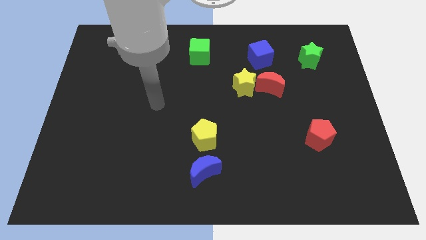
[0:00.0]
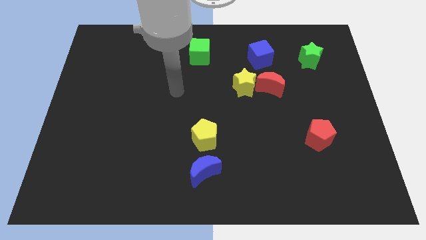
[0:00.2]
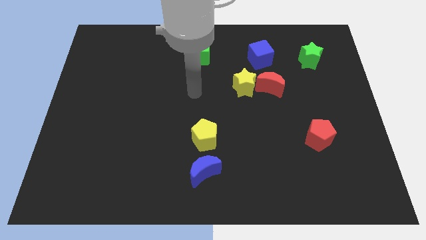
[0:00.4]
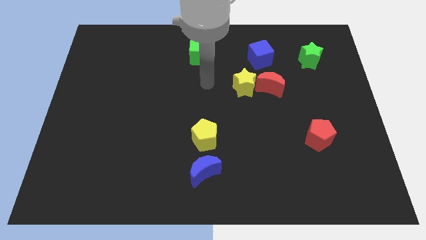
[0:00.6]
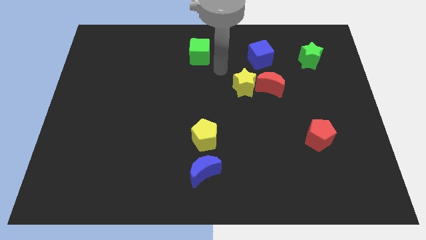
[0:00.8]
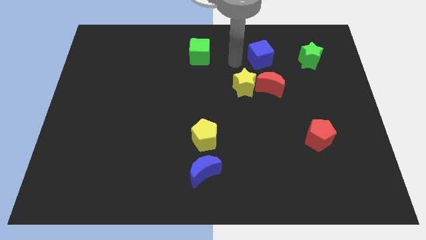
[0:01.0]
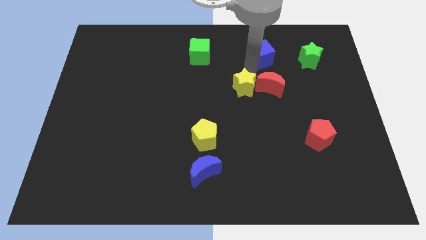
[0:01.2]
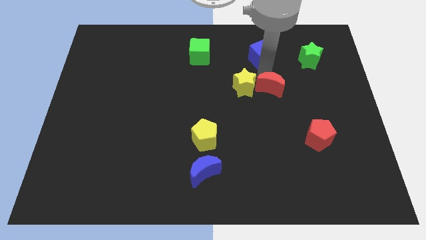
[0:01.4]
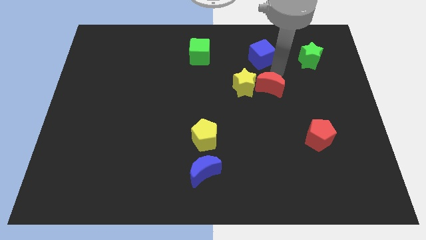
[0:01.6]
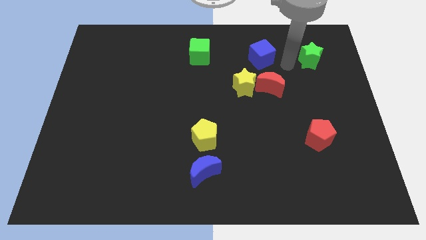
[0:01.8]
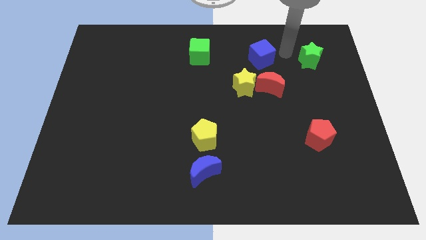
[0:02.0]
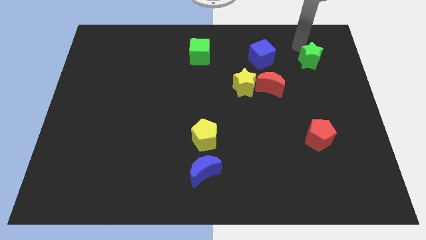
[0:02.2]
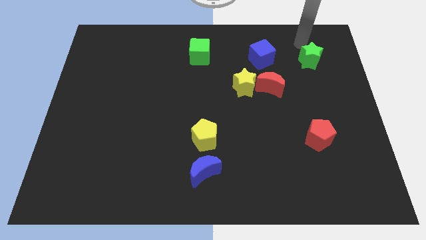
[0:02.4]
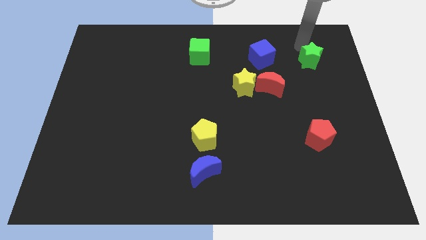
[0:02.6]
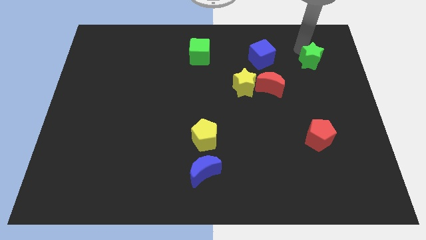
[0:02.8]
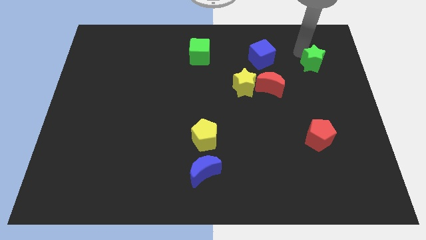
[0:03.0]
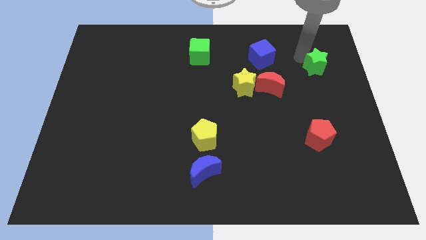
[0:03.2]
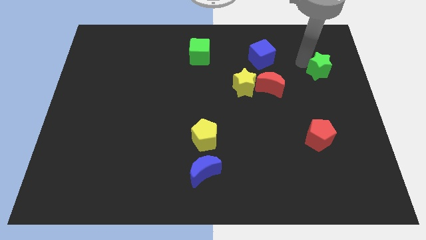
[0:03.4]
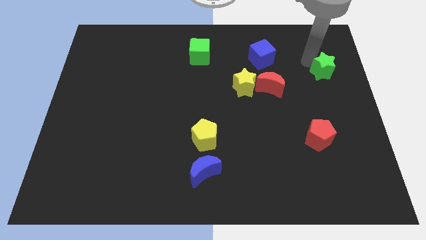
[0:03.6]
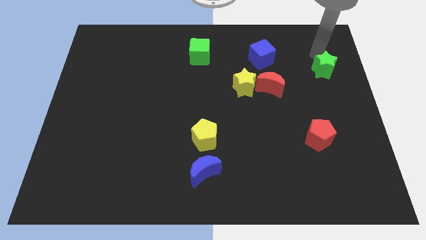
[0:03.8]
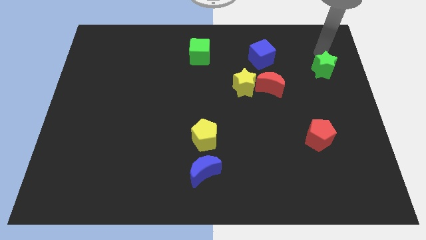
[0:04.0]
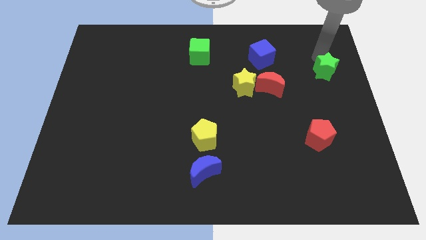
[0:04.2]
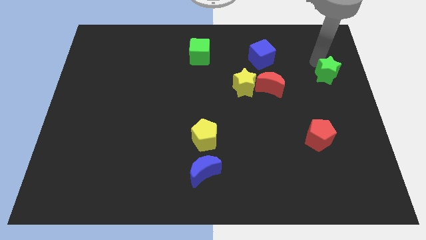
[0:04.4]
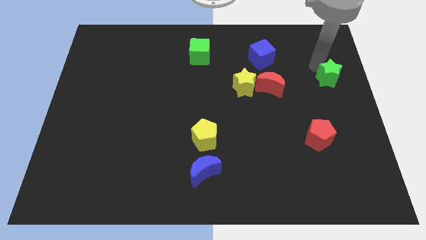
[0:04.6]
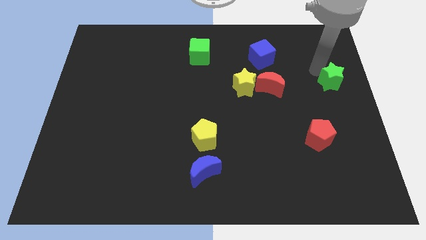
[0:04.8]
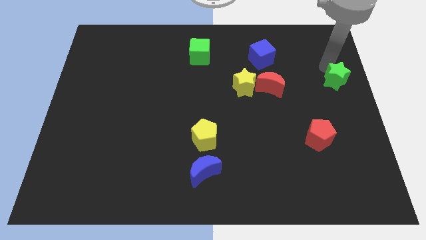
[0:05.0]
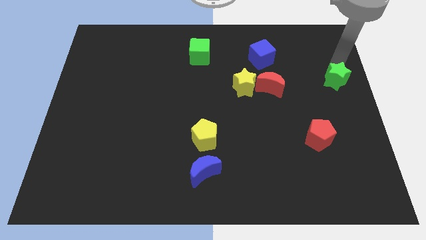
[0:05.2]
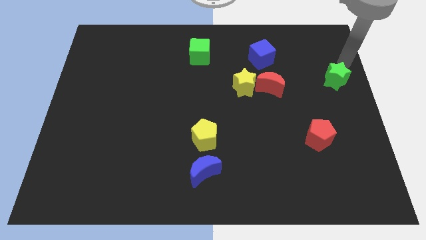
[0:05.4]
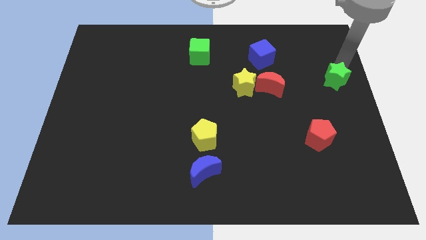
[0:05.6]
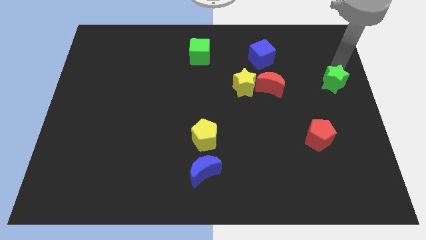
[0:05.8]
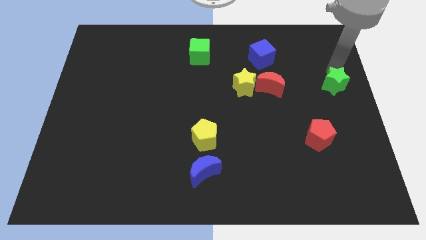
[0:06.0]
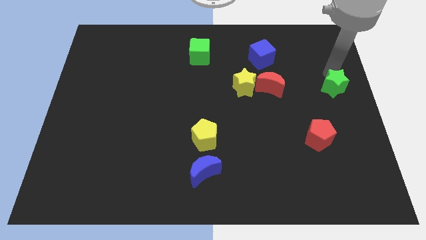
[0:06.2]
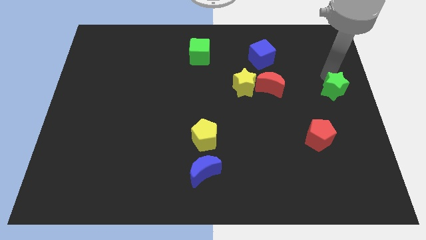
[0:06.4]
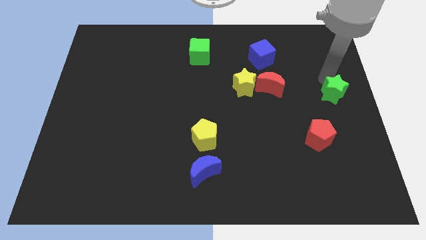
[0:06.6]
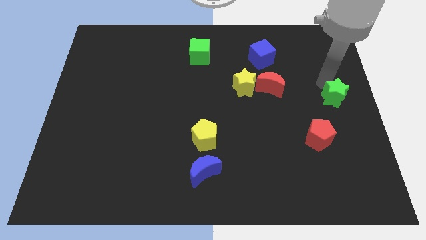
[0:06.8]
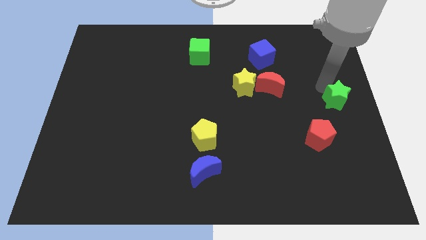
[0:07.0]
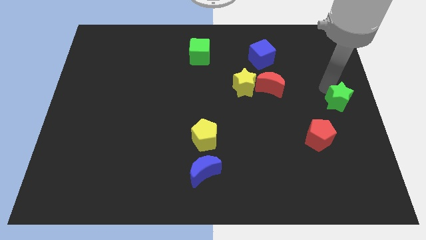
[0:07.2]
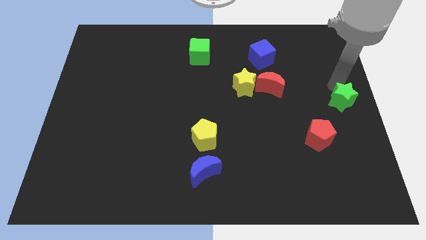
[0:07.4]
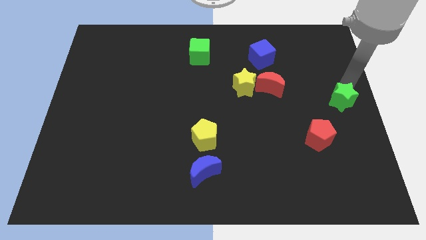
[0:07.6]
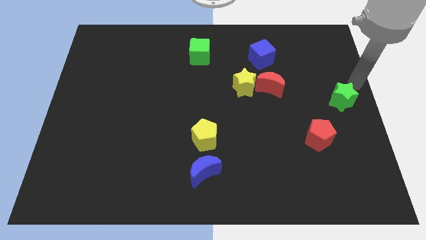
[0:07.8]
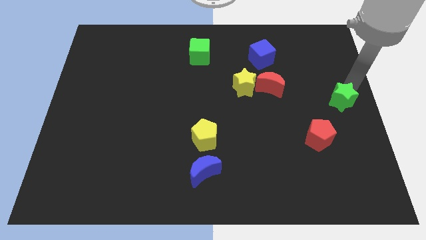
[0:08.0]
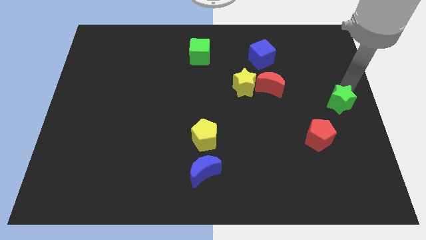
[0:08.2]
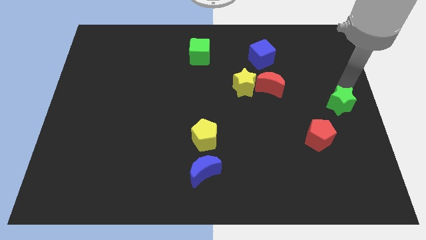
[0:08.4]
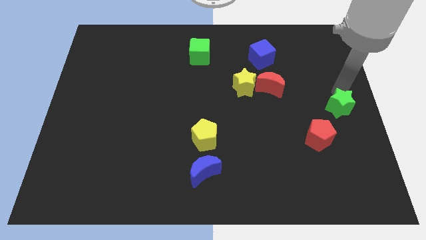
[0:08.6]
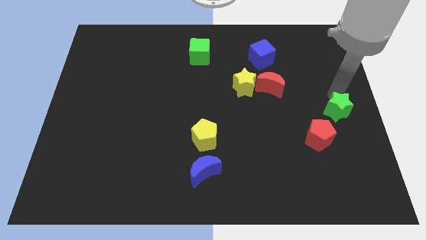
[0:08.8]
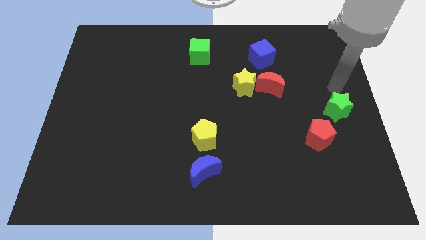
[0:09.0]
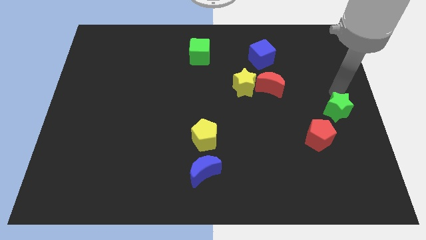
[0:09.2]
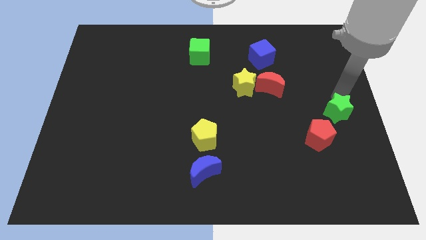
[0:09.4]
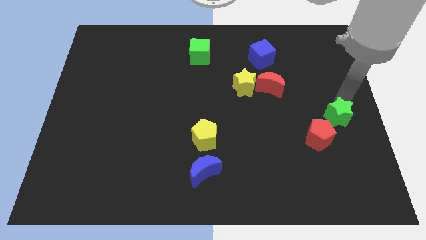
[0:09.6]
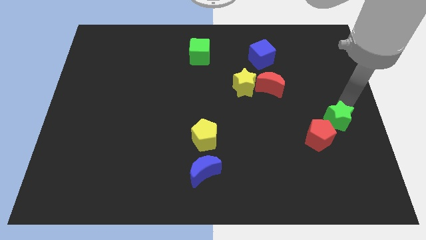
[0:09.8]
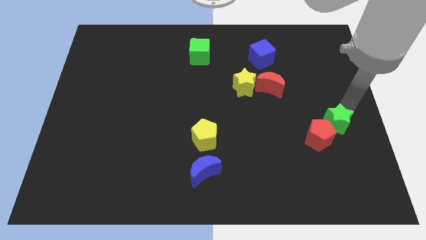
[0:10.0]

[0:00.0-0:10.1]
push the green star down

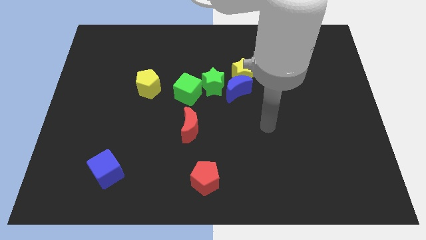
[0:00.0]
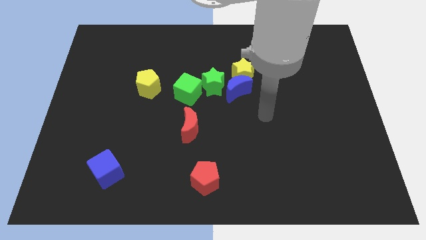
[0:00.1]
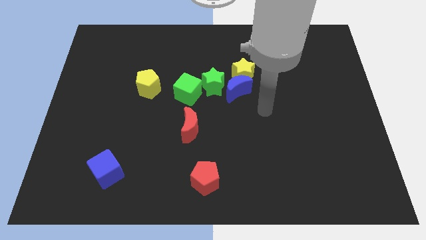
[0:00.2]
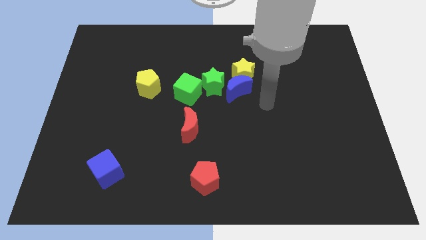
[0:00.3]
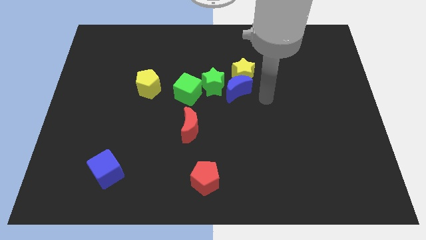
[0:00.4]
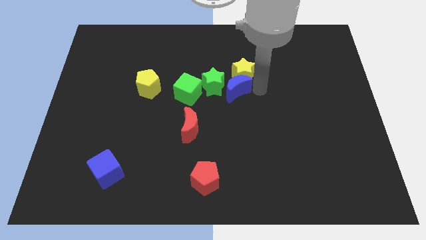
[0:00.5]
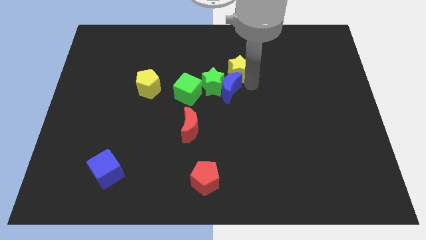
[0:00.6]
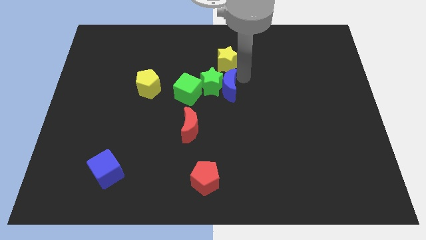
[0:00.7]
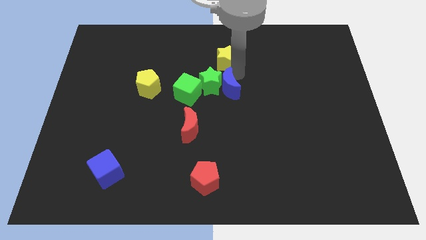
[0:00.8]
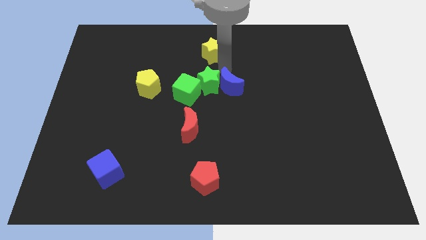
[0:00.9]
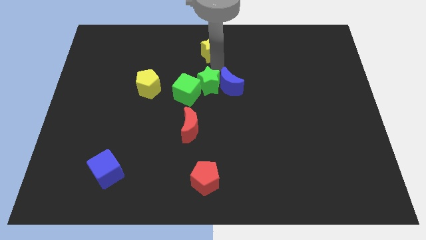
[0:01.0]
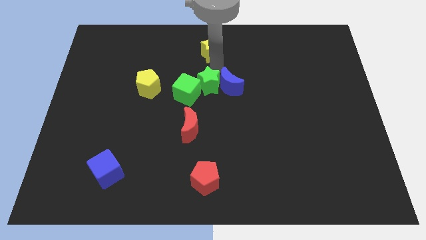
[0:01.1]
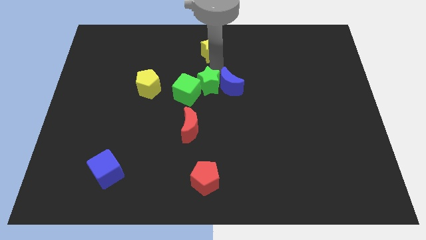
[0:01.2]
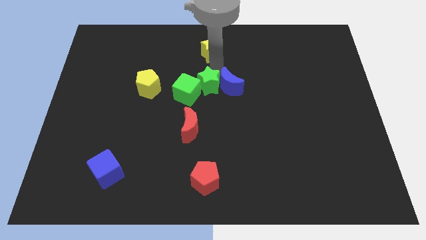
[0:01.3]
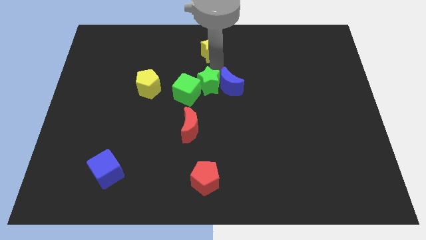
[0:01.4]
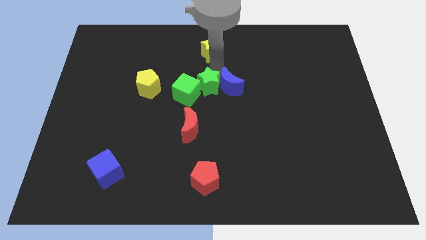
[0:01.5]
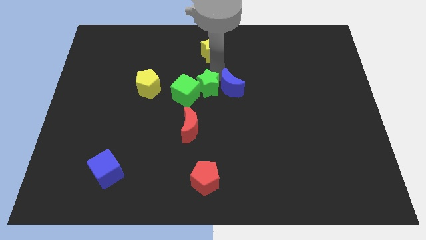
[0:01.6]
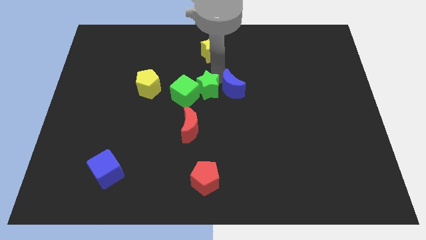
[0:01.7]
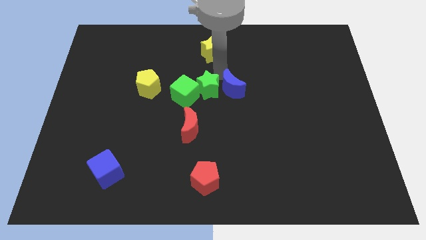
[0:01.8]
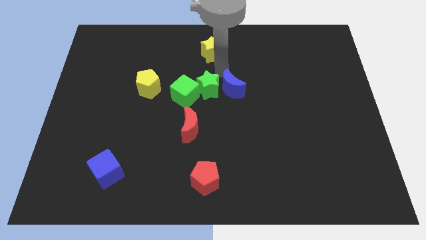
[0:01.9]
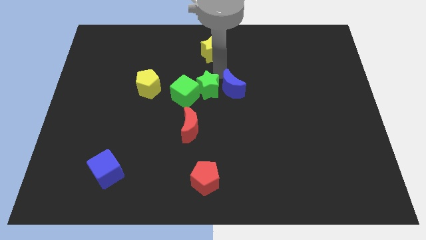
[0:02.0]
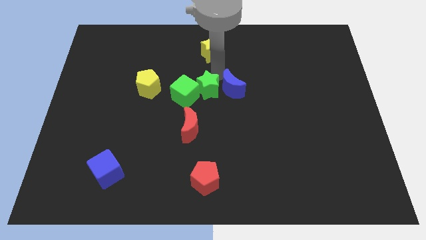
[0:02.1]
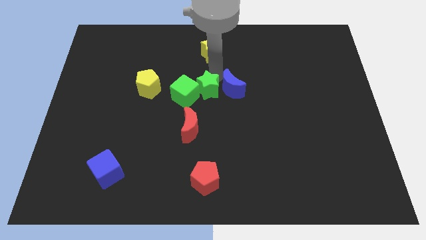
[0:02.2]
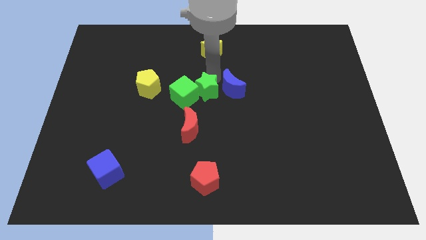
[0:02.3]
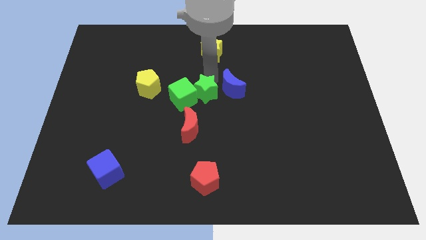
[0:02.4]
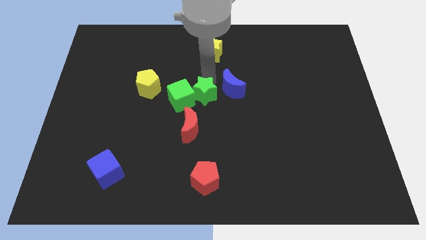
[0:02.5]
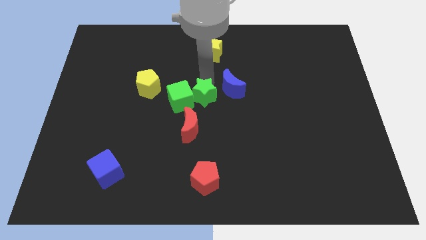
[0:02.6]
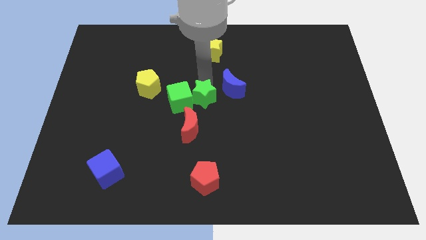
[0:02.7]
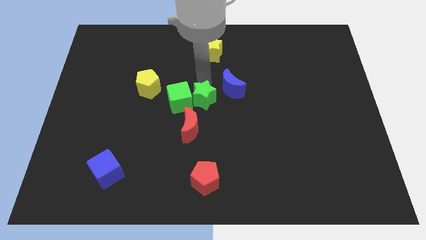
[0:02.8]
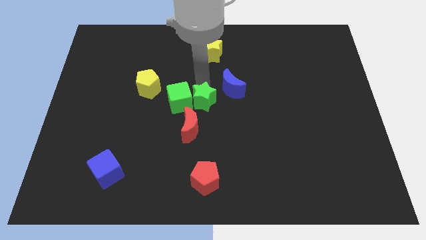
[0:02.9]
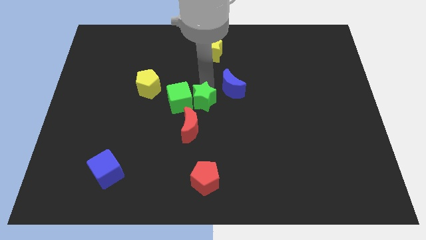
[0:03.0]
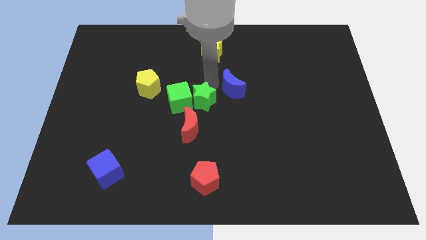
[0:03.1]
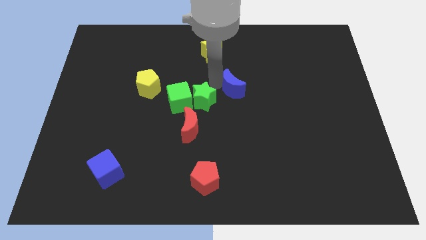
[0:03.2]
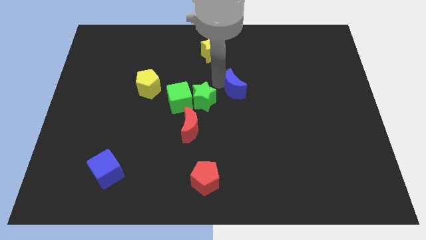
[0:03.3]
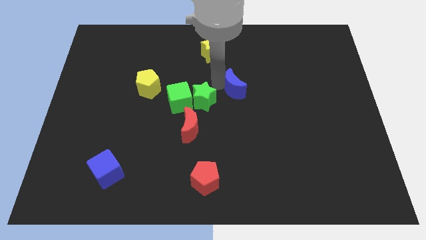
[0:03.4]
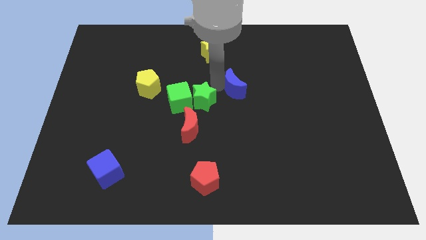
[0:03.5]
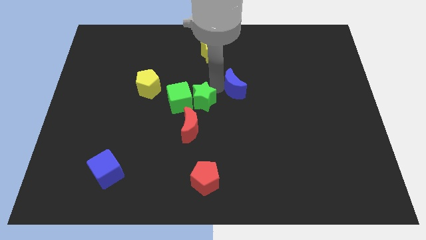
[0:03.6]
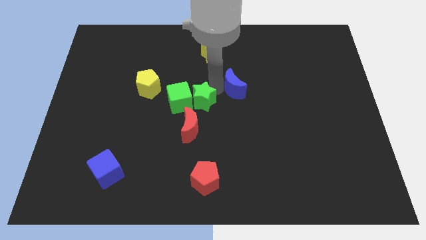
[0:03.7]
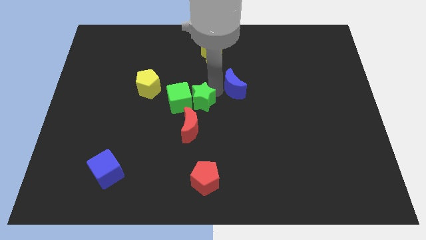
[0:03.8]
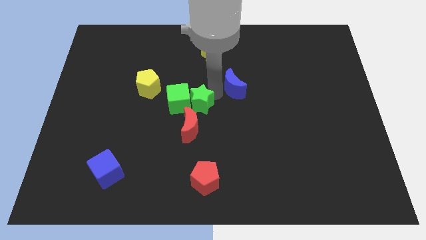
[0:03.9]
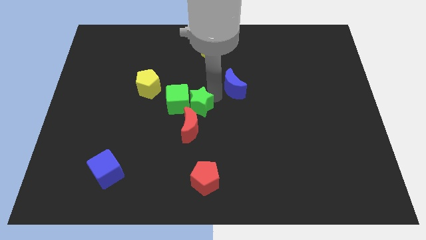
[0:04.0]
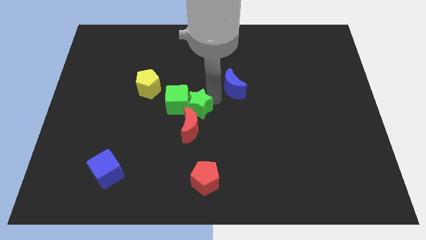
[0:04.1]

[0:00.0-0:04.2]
slightly move the green star diagonally down and left
